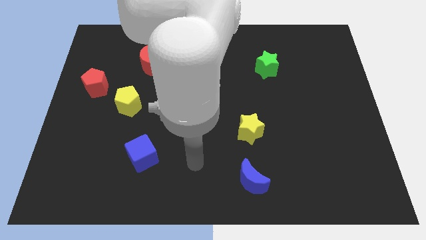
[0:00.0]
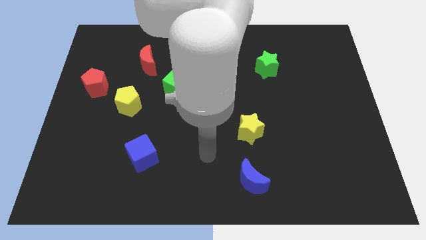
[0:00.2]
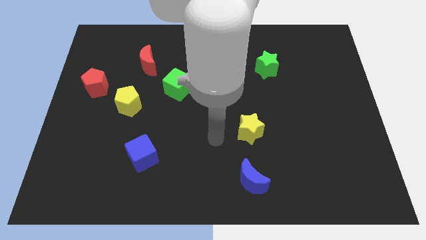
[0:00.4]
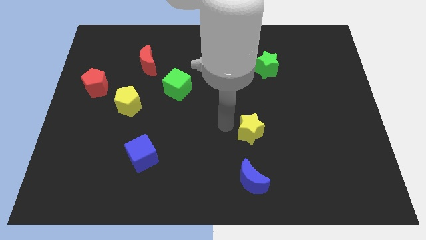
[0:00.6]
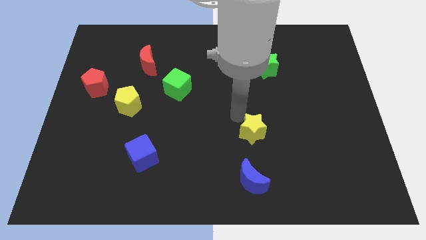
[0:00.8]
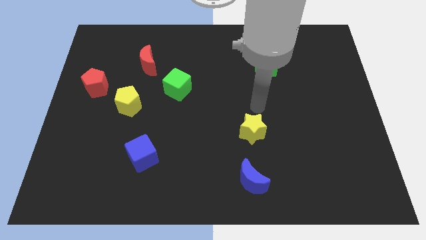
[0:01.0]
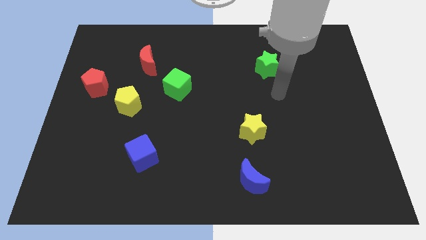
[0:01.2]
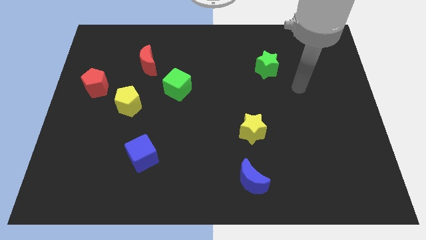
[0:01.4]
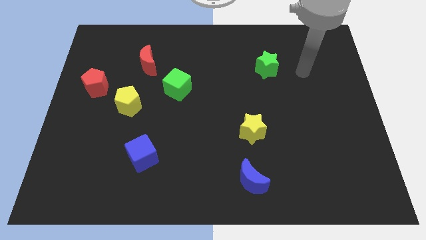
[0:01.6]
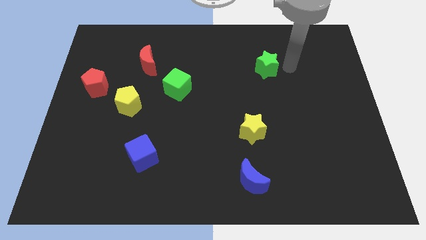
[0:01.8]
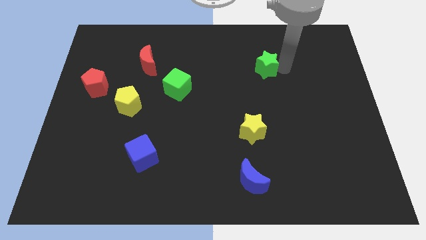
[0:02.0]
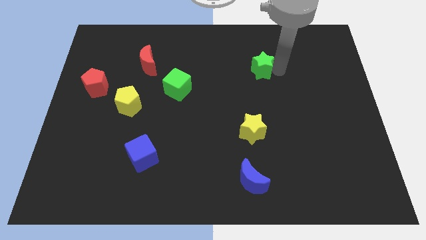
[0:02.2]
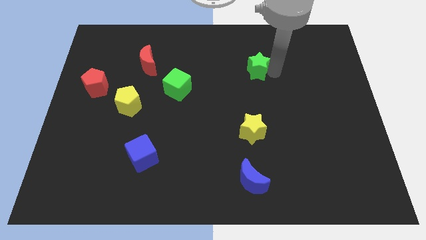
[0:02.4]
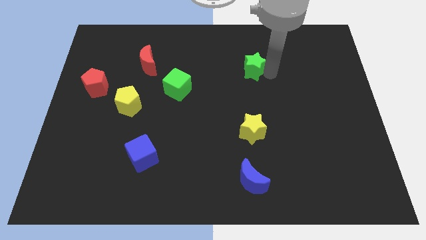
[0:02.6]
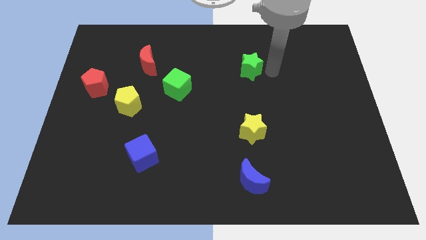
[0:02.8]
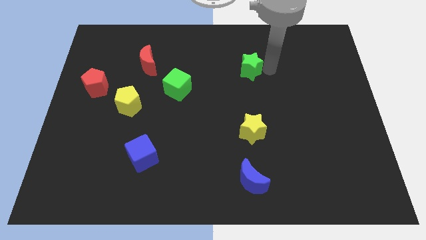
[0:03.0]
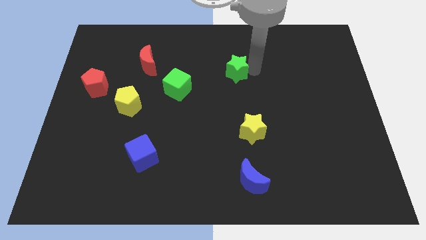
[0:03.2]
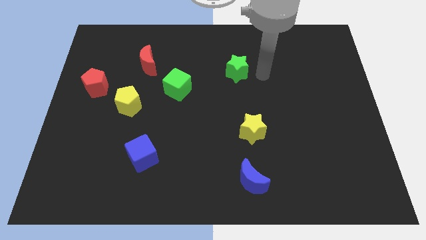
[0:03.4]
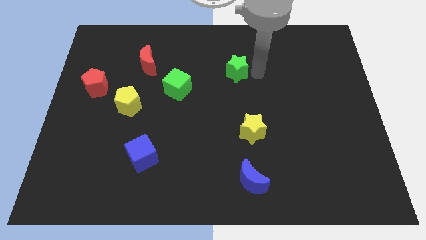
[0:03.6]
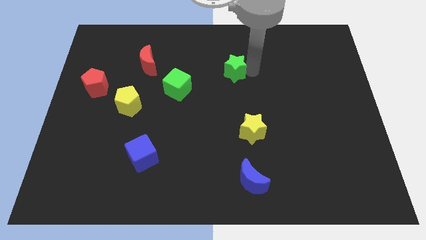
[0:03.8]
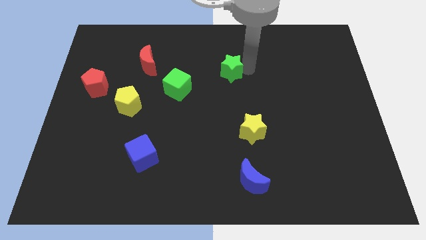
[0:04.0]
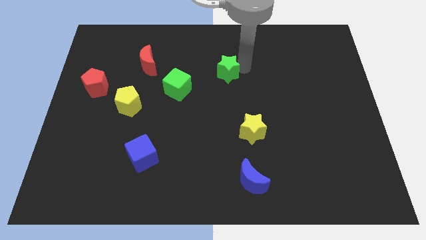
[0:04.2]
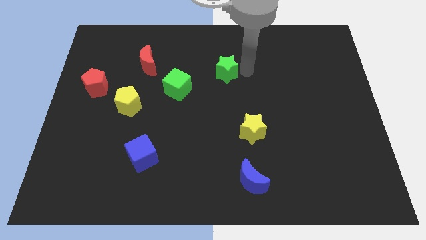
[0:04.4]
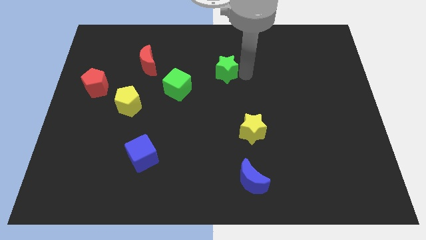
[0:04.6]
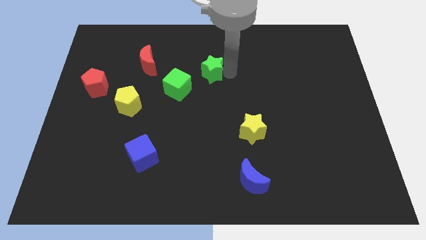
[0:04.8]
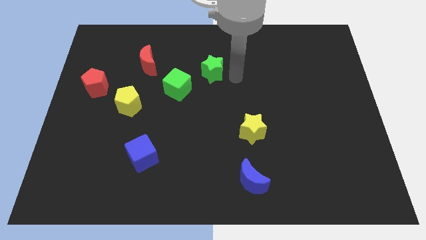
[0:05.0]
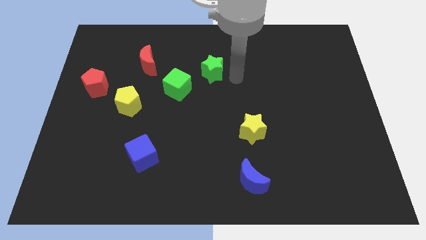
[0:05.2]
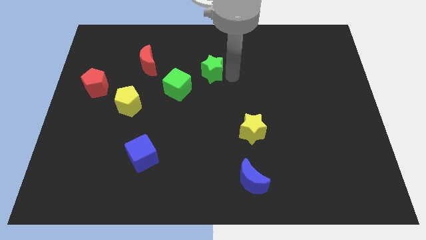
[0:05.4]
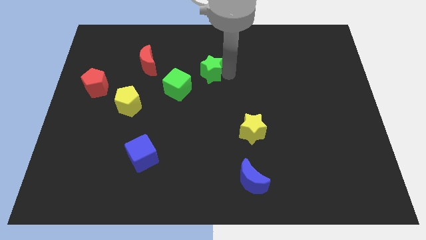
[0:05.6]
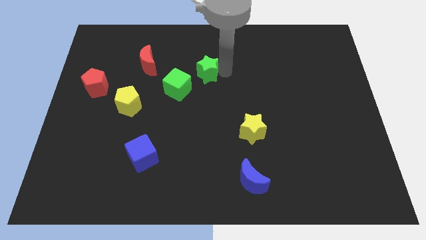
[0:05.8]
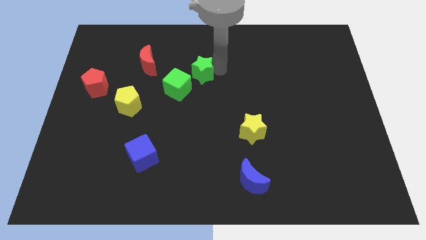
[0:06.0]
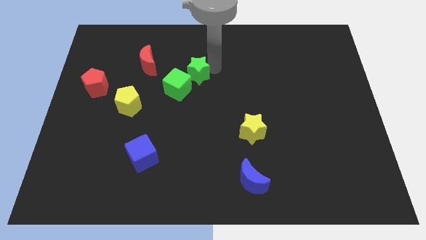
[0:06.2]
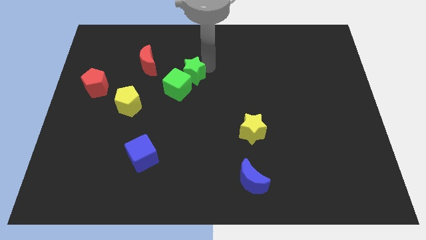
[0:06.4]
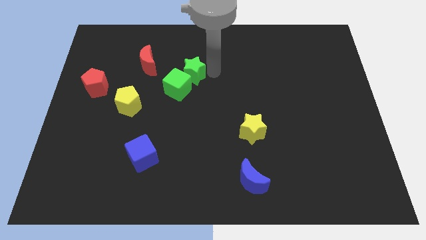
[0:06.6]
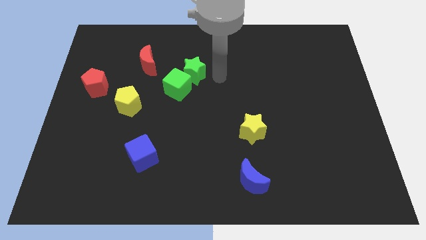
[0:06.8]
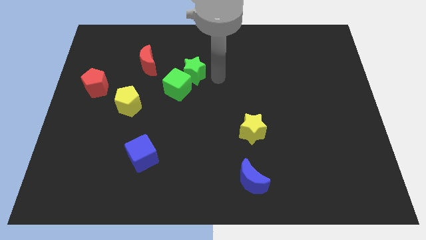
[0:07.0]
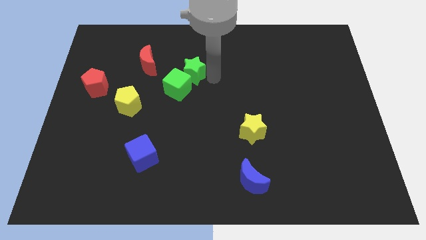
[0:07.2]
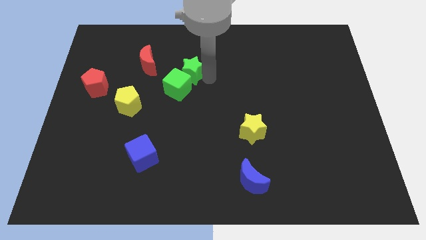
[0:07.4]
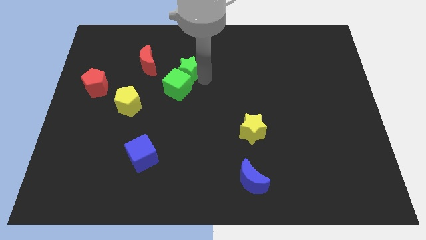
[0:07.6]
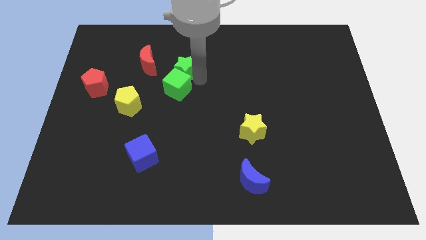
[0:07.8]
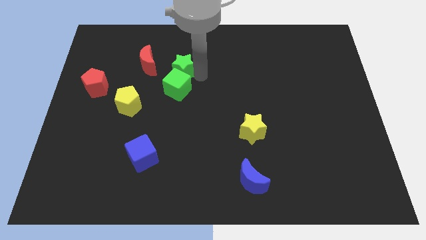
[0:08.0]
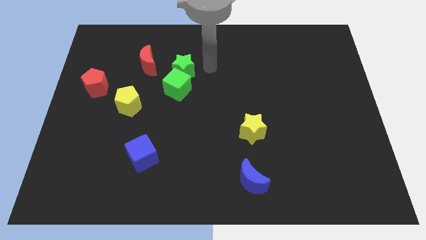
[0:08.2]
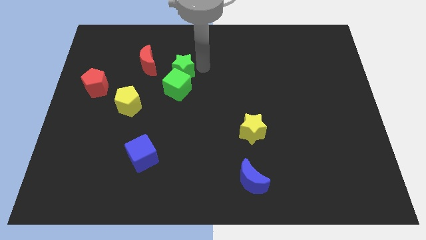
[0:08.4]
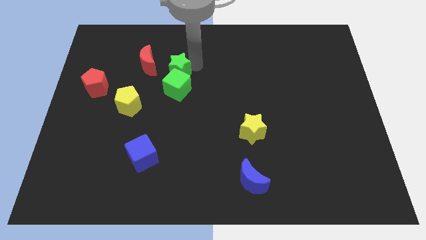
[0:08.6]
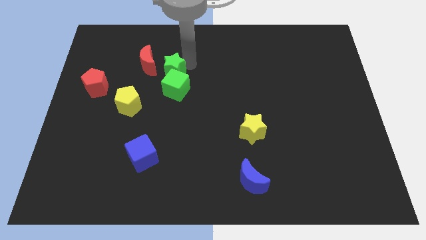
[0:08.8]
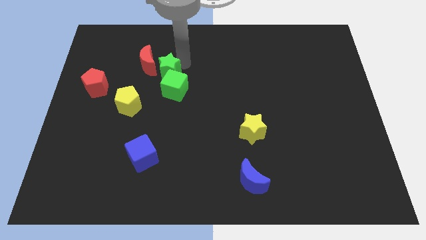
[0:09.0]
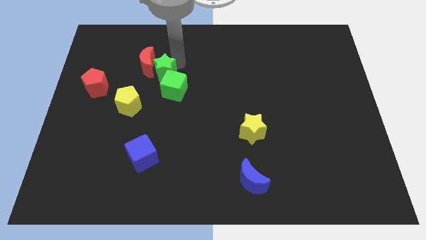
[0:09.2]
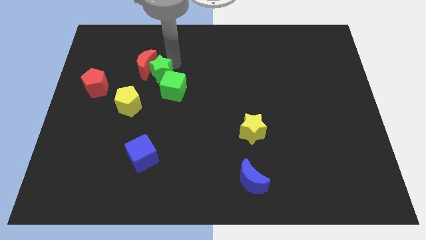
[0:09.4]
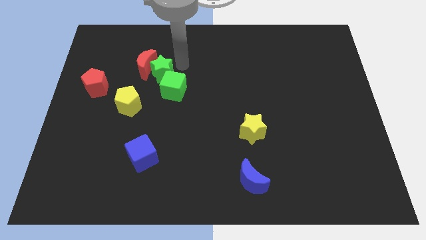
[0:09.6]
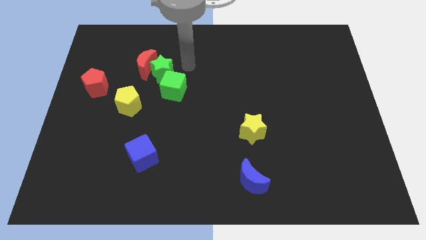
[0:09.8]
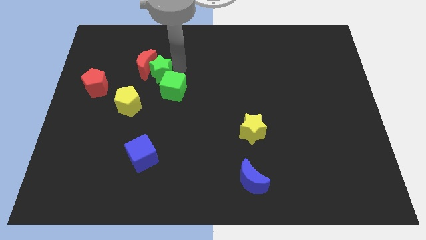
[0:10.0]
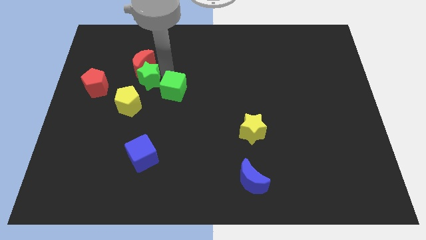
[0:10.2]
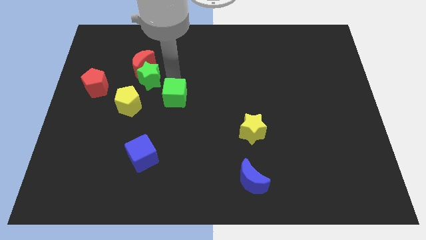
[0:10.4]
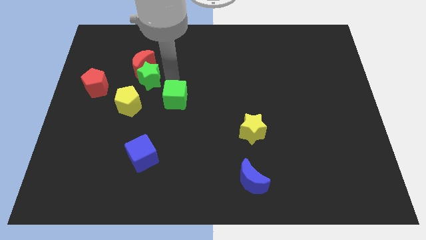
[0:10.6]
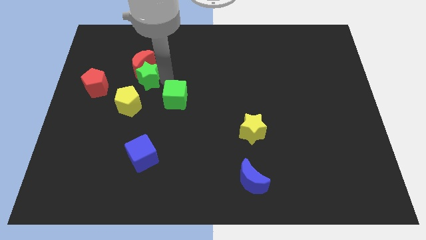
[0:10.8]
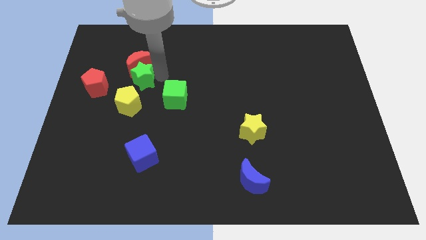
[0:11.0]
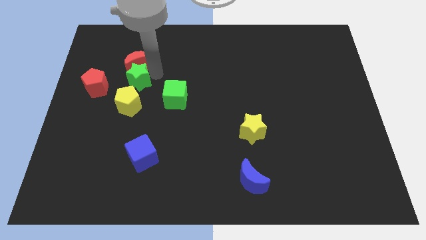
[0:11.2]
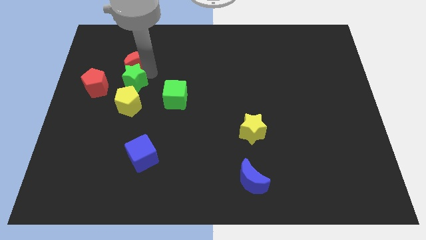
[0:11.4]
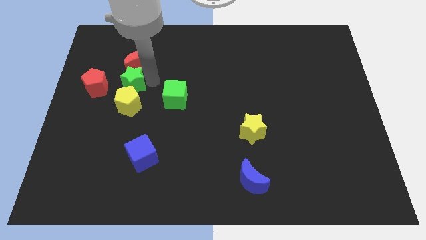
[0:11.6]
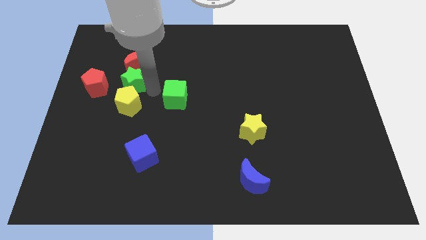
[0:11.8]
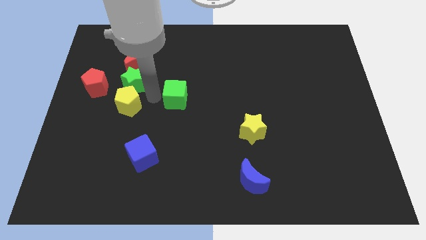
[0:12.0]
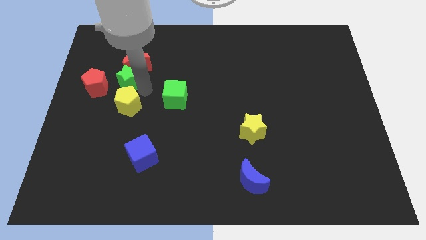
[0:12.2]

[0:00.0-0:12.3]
put the green star to the top right side of the red pentagon
